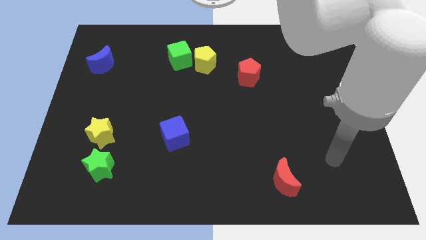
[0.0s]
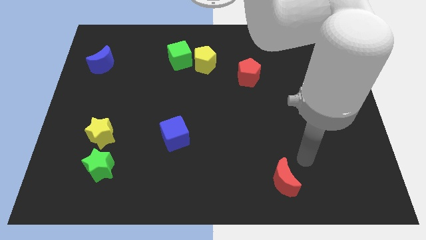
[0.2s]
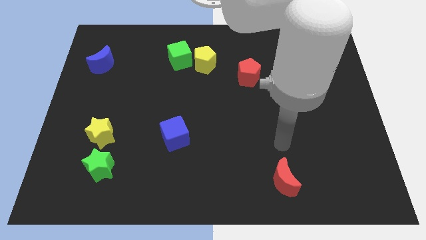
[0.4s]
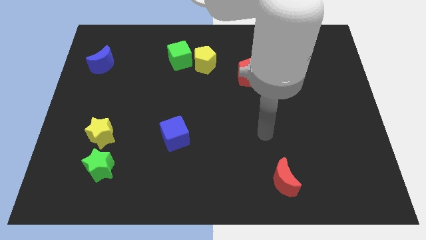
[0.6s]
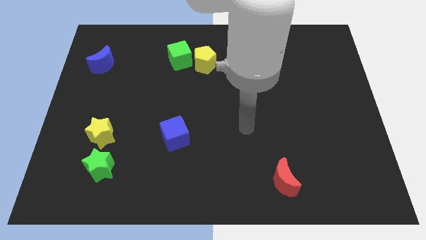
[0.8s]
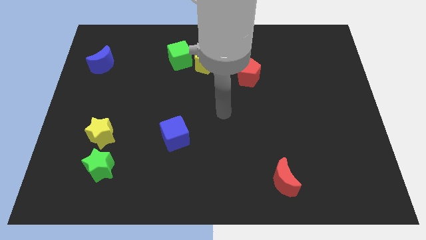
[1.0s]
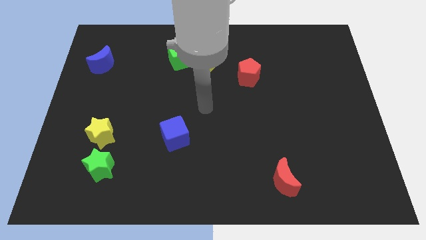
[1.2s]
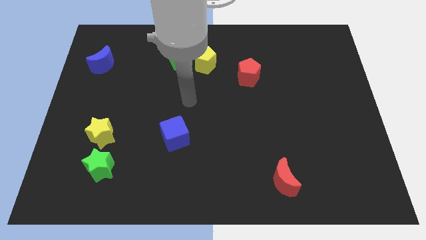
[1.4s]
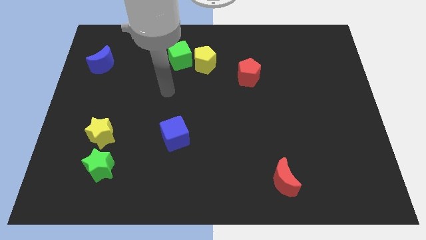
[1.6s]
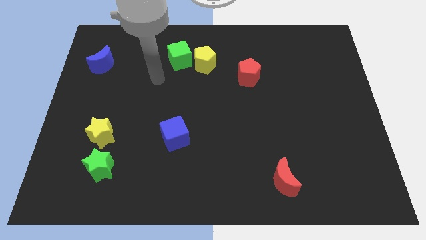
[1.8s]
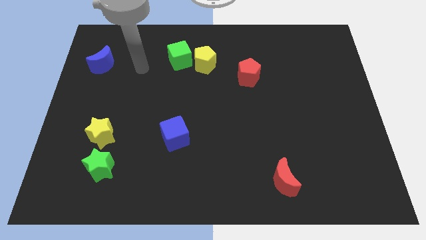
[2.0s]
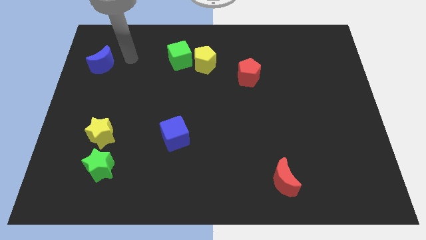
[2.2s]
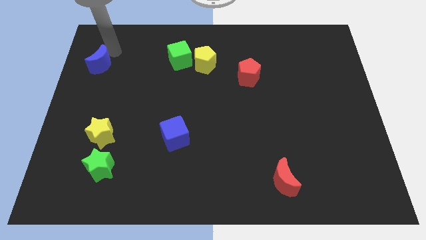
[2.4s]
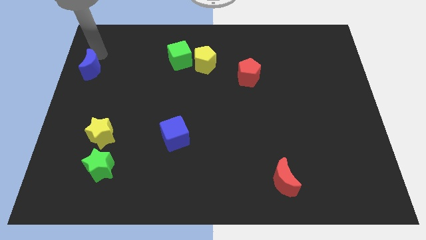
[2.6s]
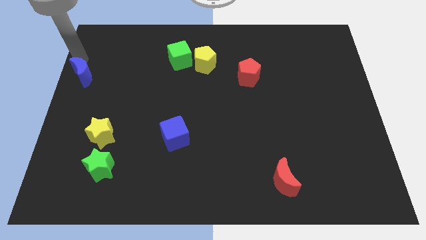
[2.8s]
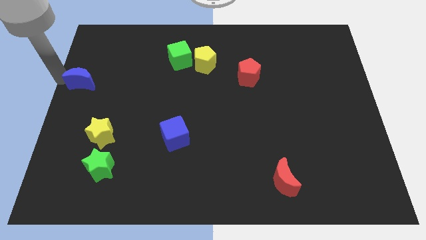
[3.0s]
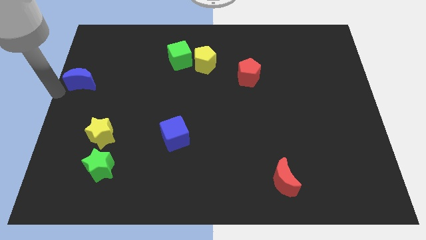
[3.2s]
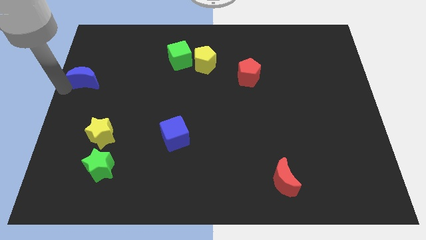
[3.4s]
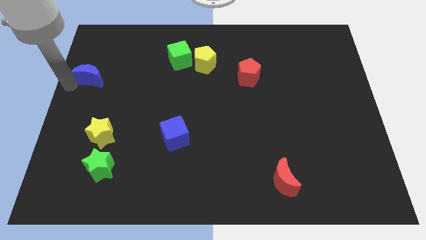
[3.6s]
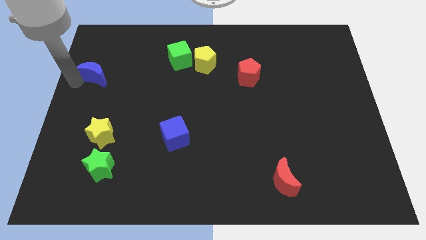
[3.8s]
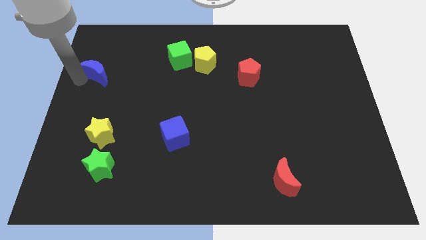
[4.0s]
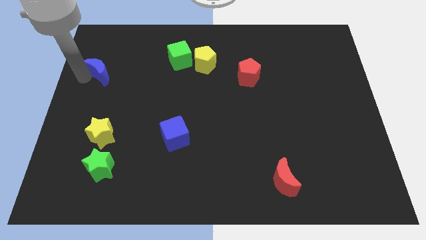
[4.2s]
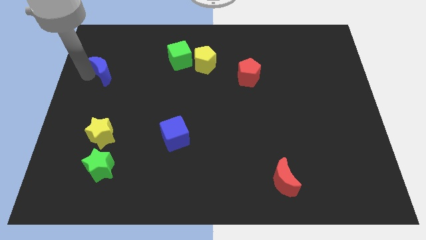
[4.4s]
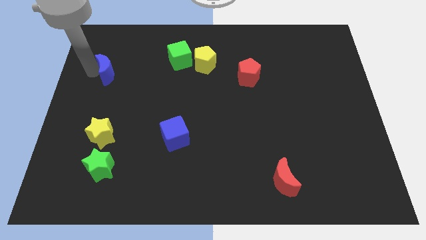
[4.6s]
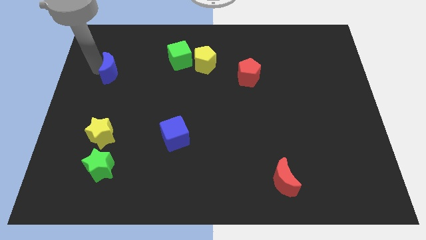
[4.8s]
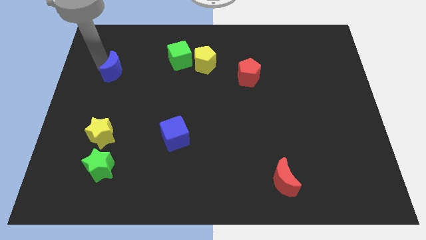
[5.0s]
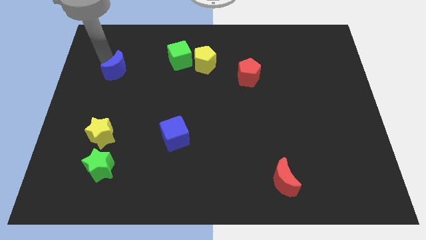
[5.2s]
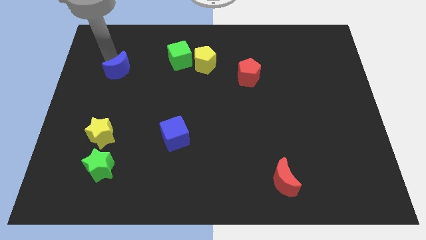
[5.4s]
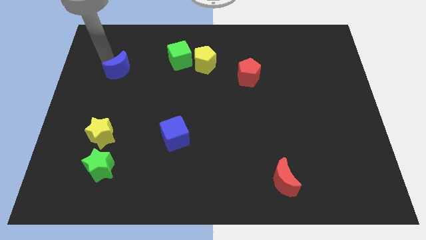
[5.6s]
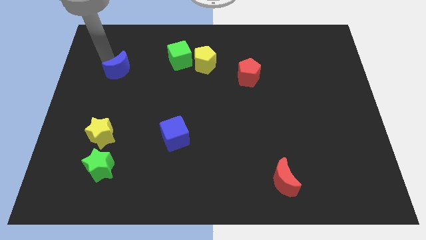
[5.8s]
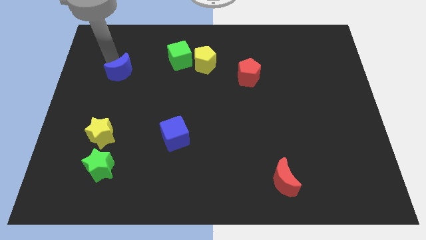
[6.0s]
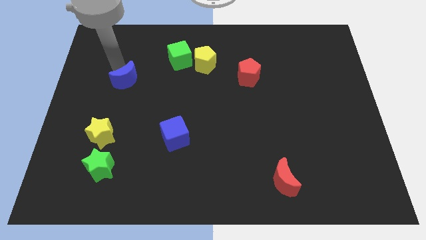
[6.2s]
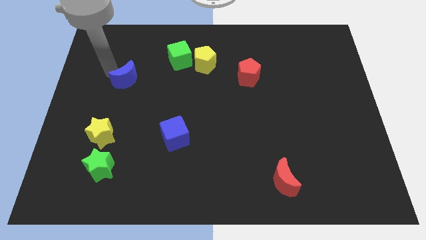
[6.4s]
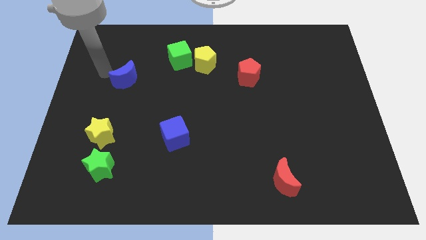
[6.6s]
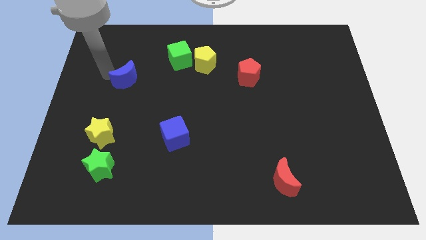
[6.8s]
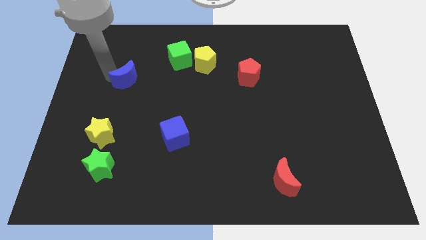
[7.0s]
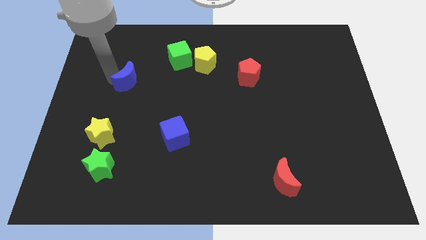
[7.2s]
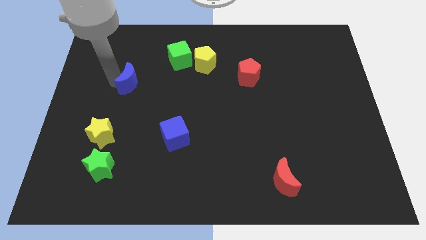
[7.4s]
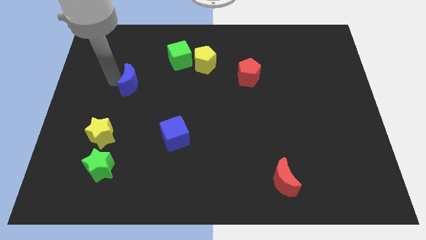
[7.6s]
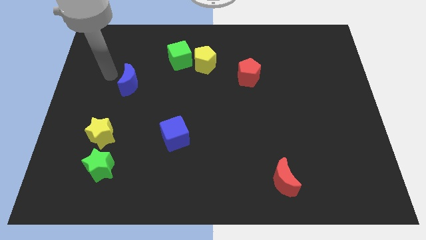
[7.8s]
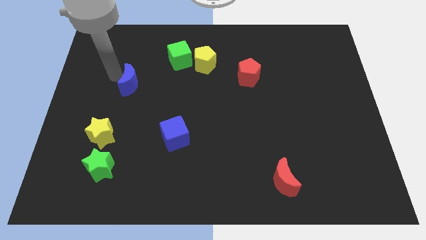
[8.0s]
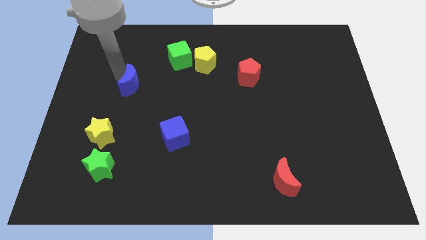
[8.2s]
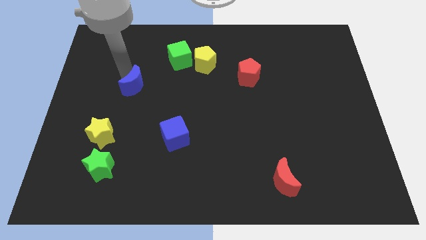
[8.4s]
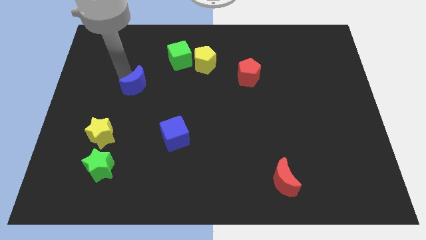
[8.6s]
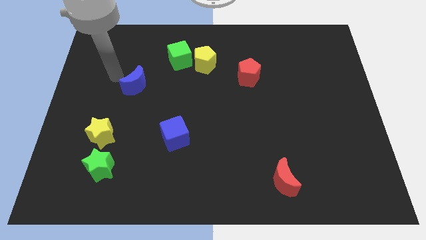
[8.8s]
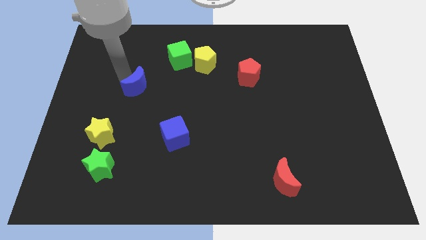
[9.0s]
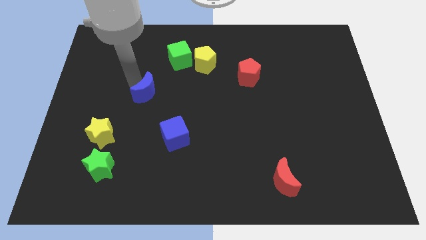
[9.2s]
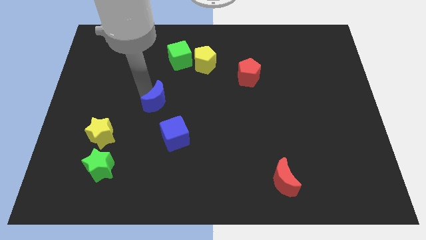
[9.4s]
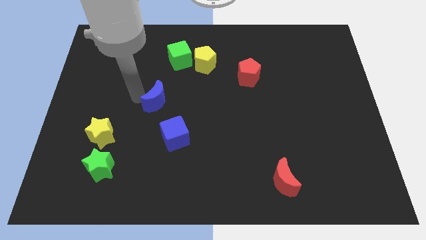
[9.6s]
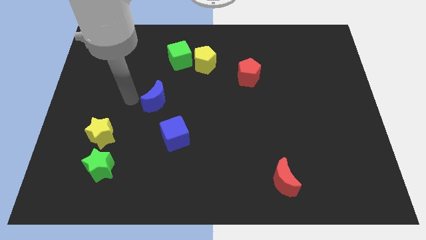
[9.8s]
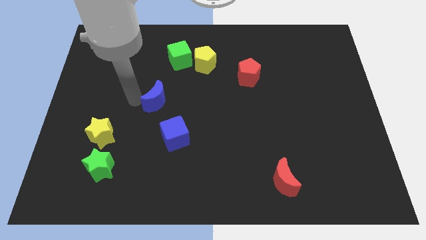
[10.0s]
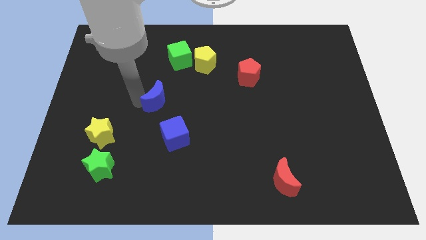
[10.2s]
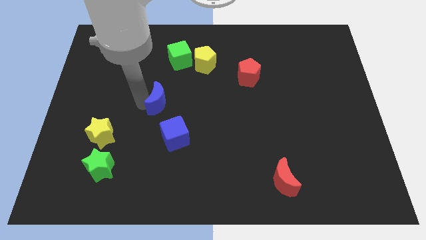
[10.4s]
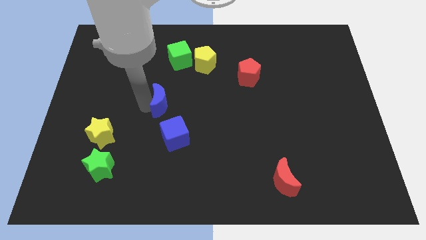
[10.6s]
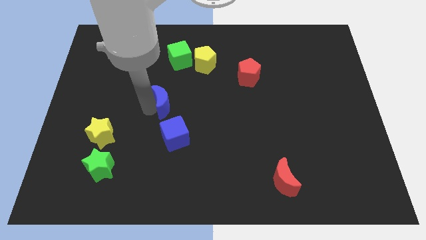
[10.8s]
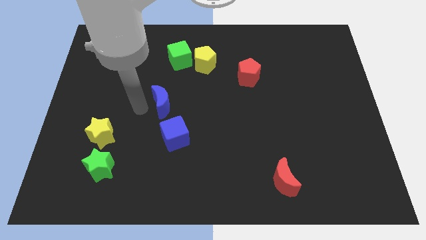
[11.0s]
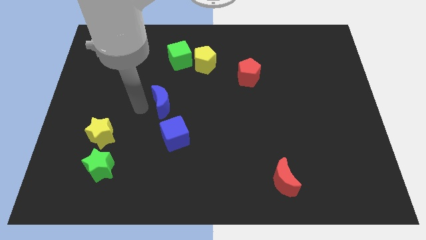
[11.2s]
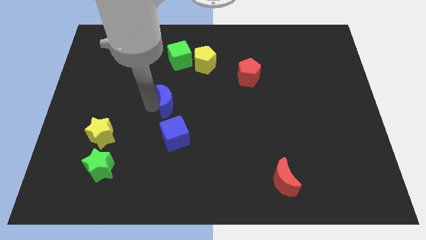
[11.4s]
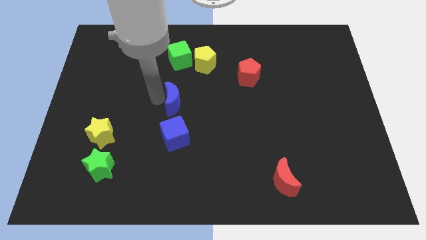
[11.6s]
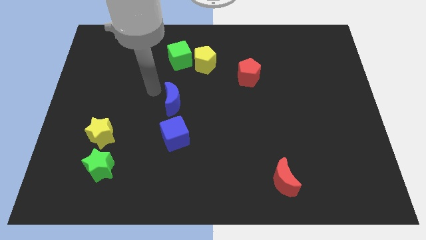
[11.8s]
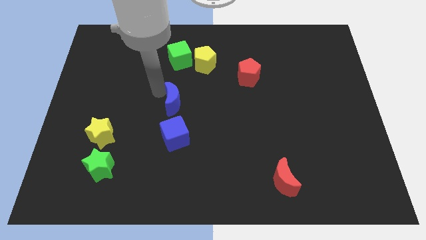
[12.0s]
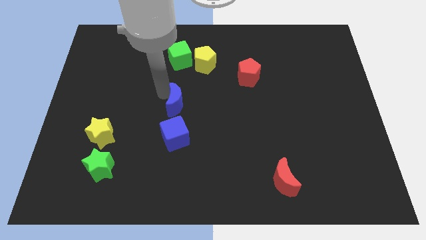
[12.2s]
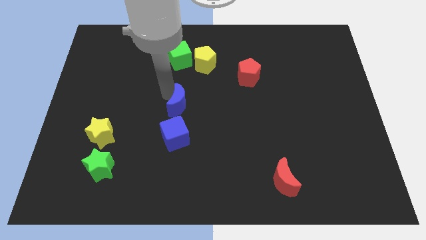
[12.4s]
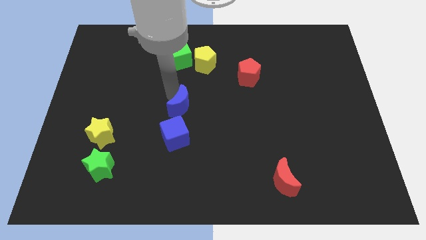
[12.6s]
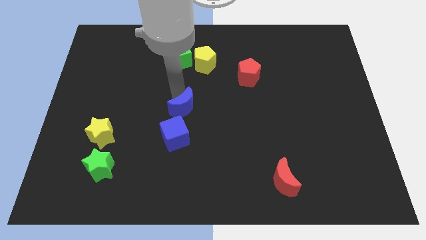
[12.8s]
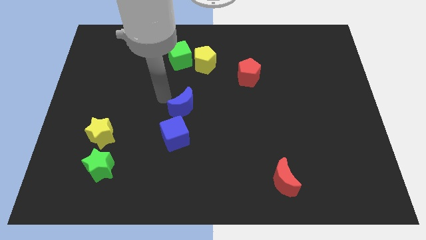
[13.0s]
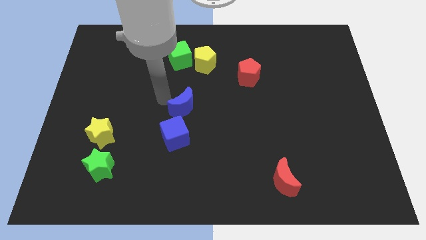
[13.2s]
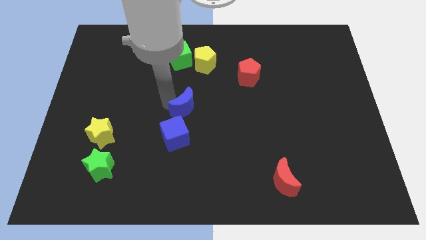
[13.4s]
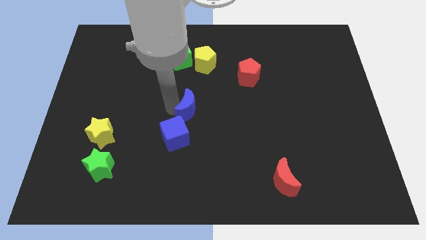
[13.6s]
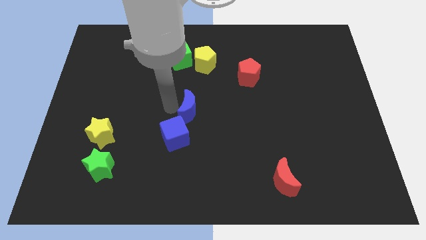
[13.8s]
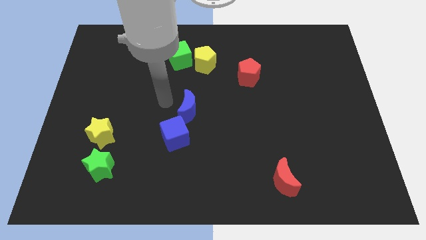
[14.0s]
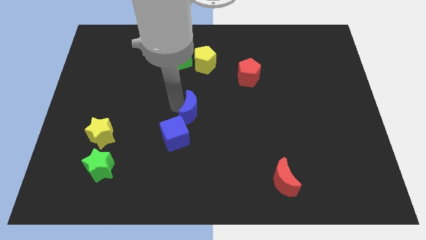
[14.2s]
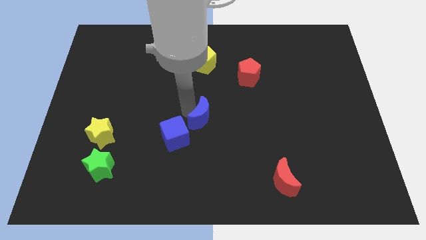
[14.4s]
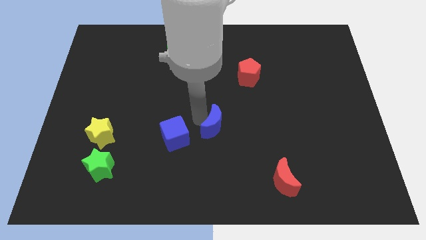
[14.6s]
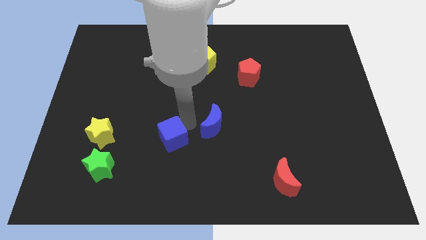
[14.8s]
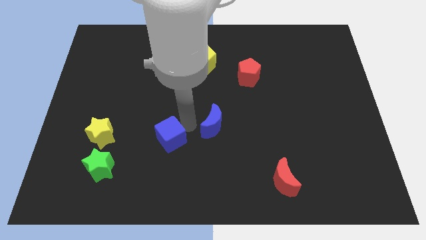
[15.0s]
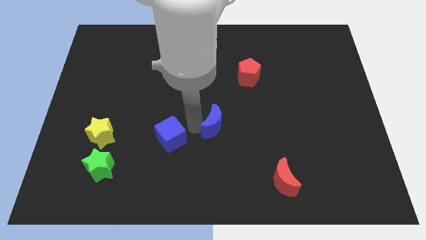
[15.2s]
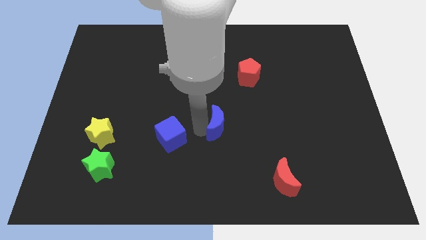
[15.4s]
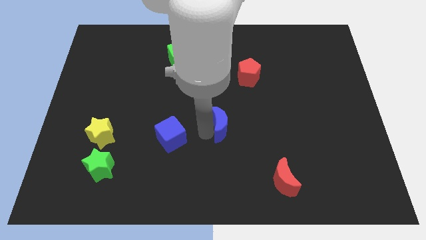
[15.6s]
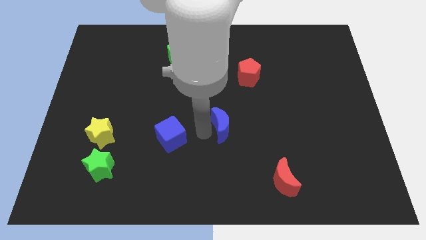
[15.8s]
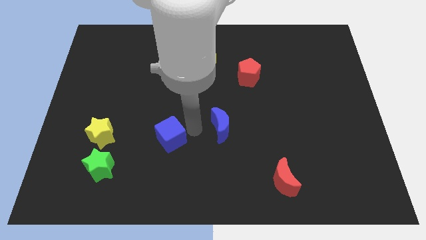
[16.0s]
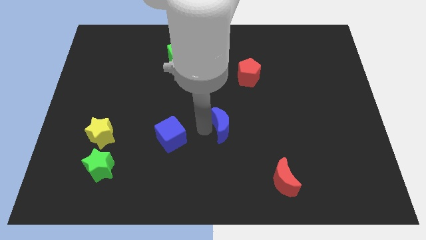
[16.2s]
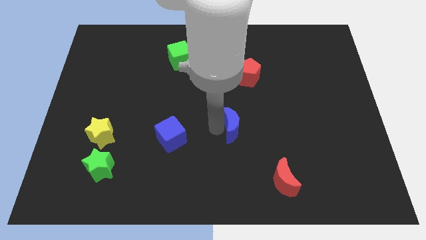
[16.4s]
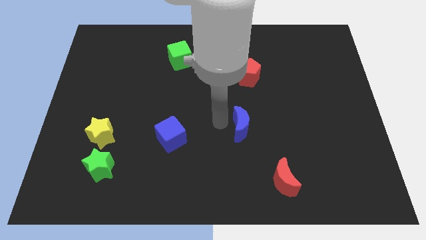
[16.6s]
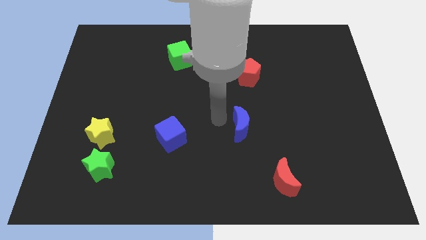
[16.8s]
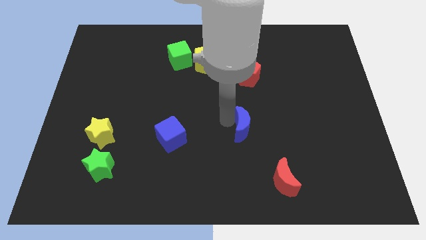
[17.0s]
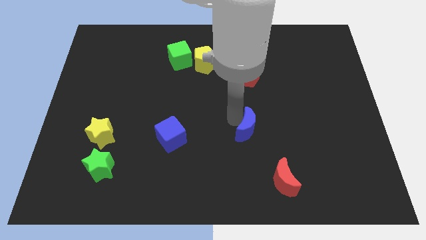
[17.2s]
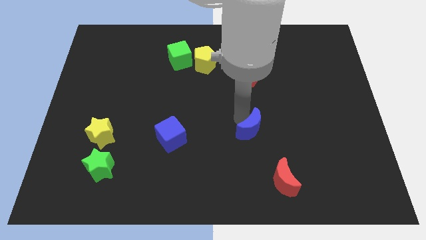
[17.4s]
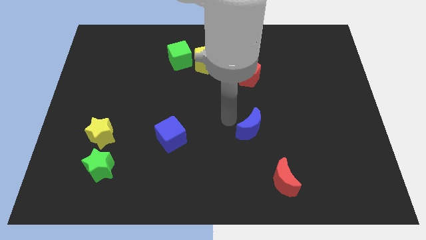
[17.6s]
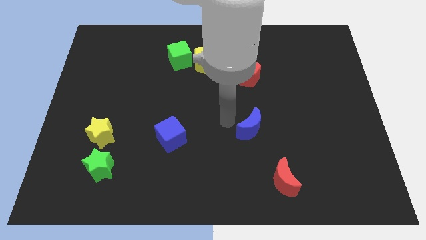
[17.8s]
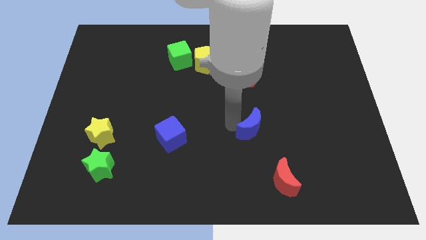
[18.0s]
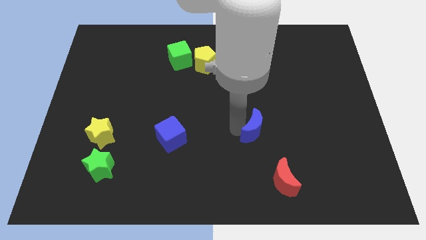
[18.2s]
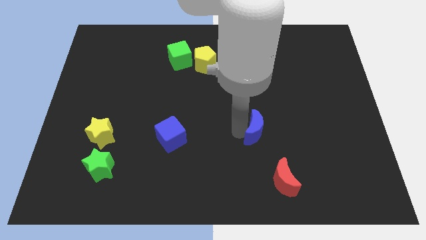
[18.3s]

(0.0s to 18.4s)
push the blue moon above the red moon
